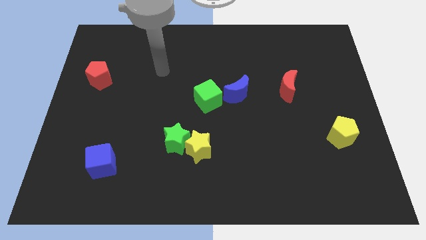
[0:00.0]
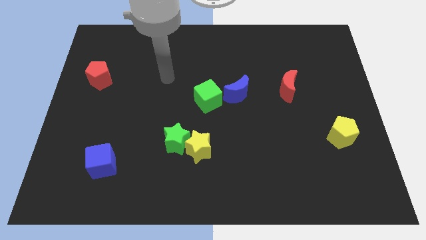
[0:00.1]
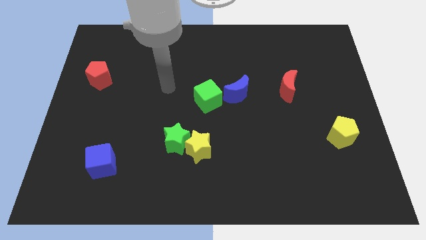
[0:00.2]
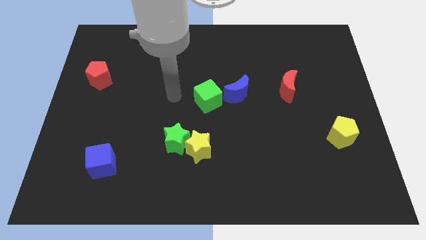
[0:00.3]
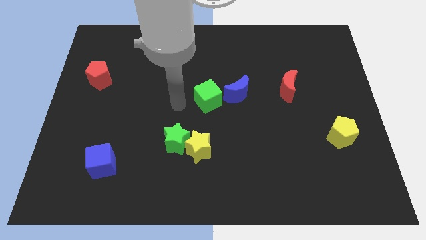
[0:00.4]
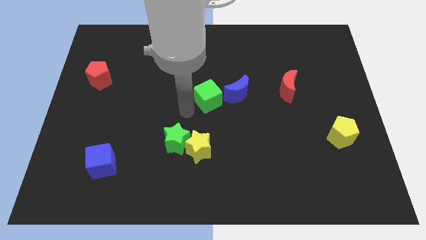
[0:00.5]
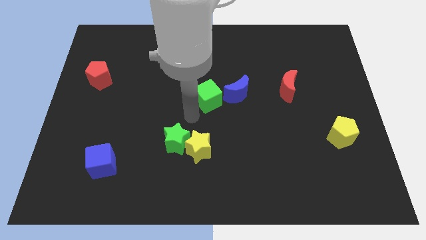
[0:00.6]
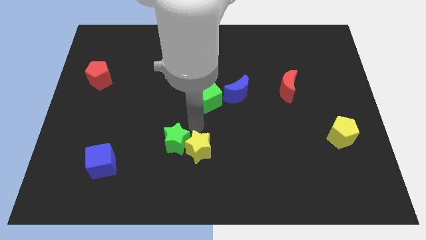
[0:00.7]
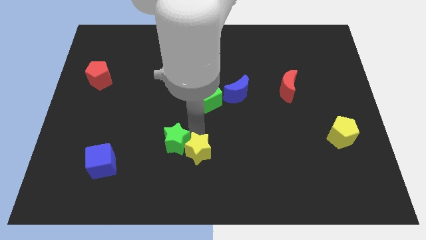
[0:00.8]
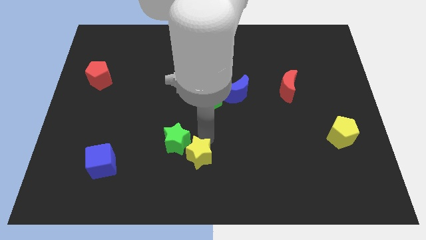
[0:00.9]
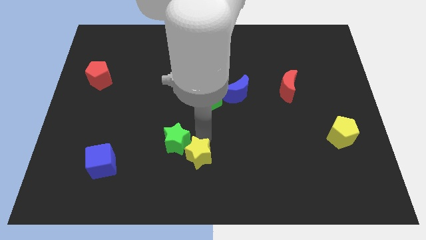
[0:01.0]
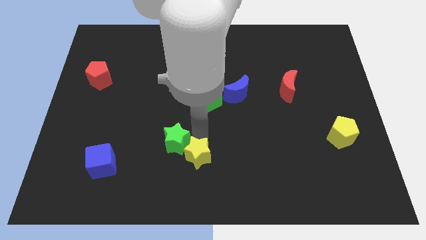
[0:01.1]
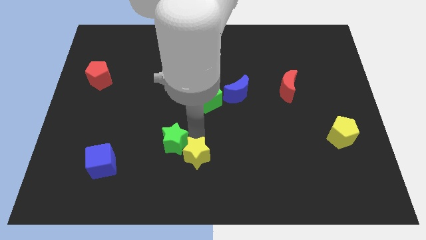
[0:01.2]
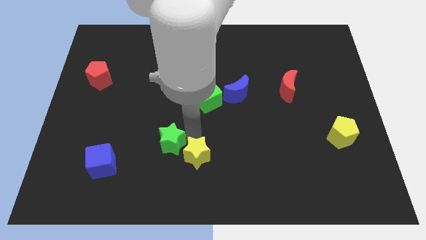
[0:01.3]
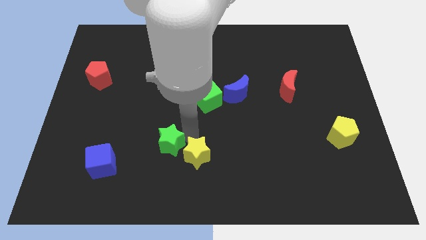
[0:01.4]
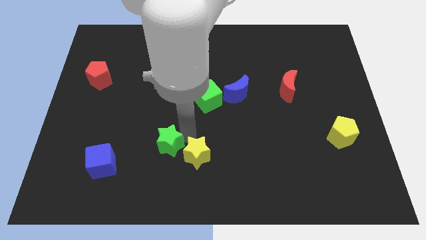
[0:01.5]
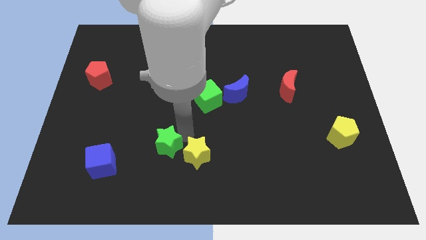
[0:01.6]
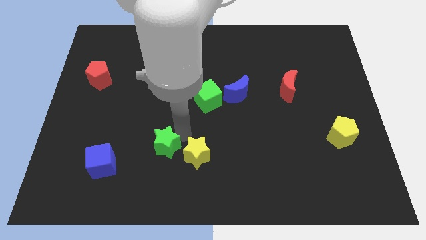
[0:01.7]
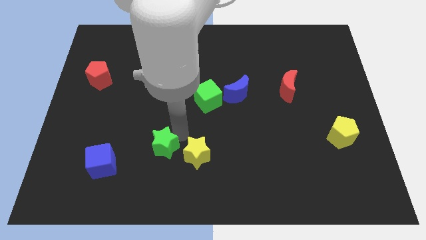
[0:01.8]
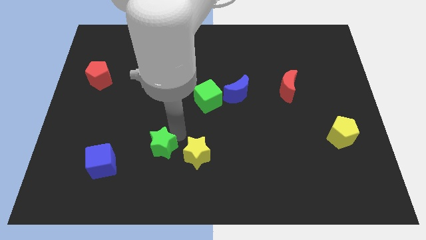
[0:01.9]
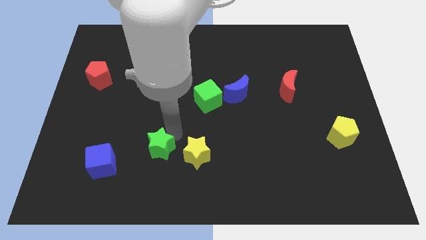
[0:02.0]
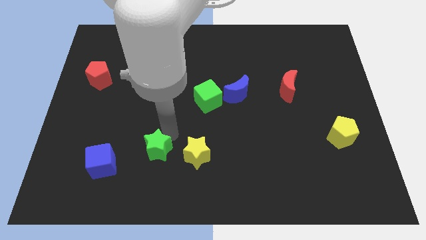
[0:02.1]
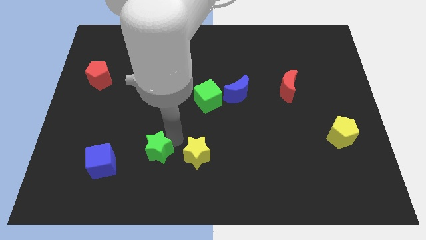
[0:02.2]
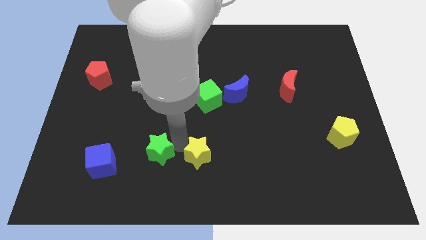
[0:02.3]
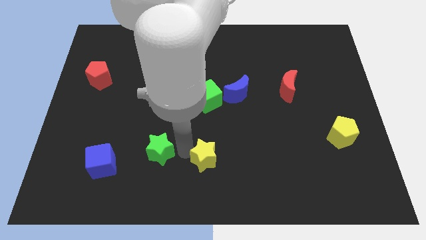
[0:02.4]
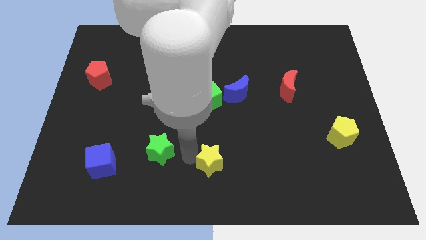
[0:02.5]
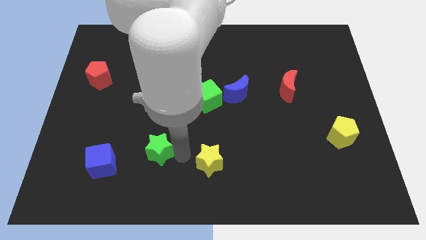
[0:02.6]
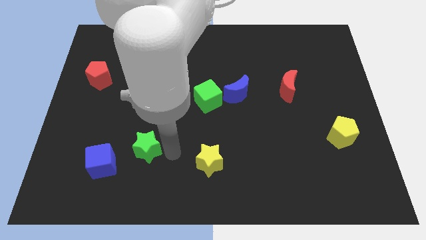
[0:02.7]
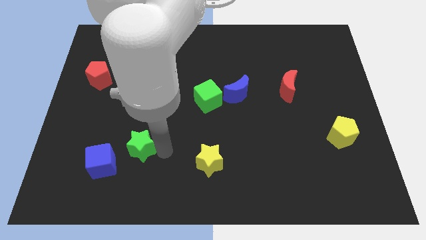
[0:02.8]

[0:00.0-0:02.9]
slightly move the green star to the left

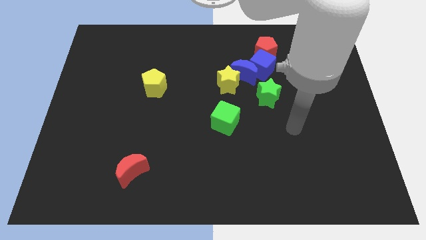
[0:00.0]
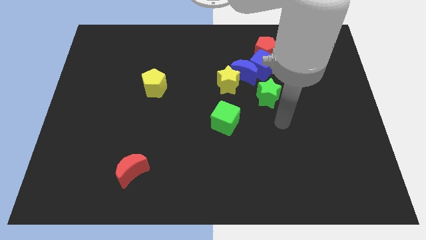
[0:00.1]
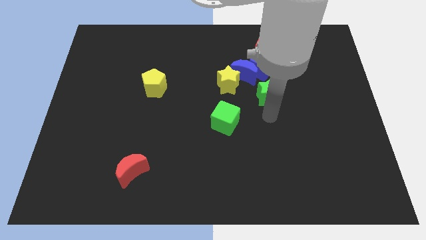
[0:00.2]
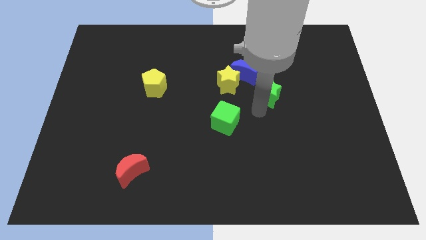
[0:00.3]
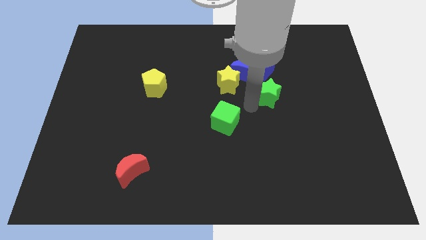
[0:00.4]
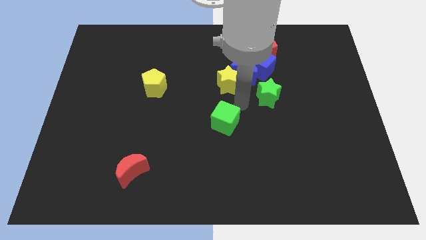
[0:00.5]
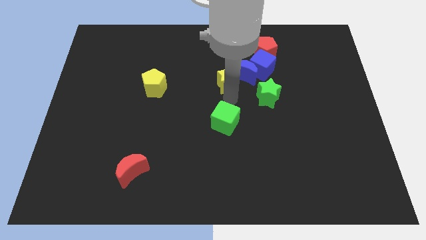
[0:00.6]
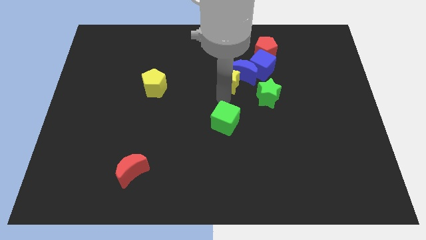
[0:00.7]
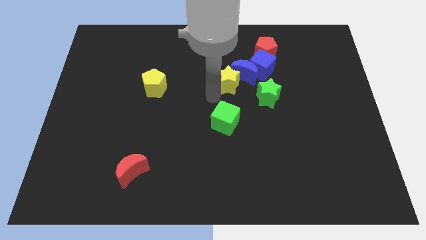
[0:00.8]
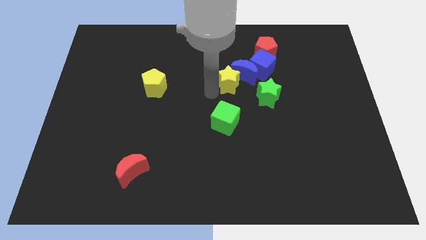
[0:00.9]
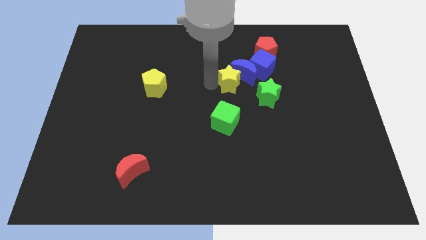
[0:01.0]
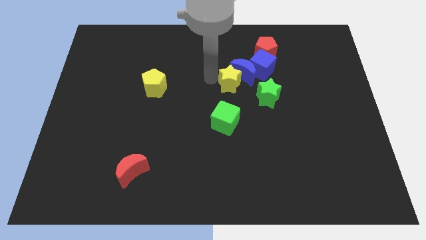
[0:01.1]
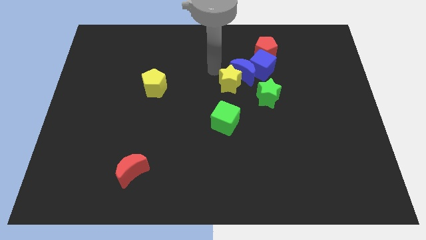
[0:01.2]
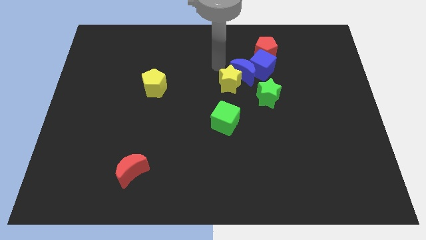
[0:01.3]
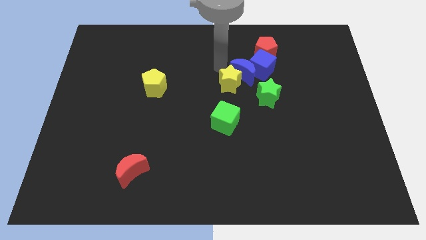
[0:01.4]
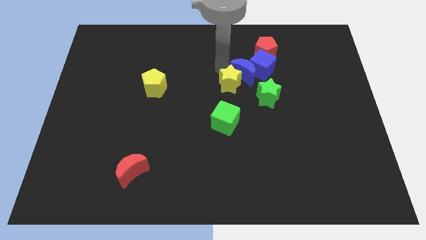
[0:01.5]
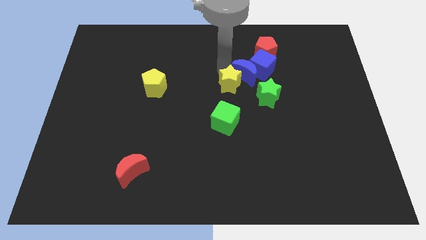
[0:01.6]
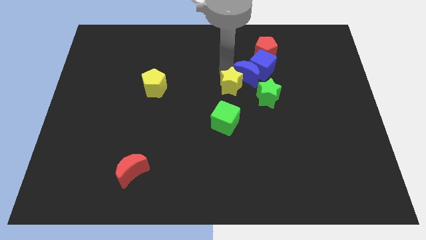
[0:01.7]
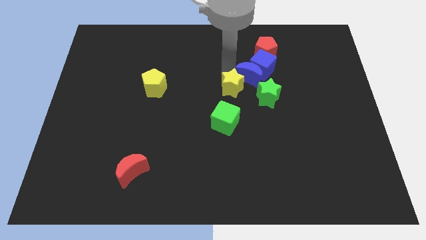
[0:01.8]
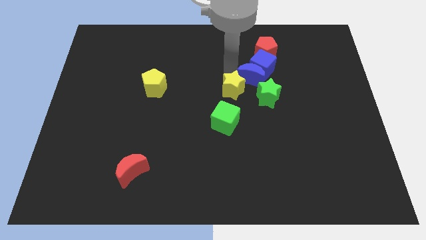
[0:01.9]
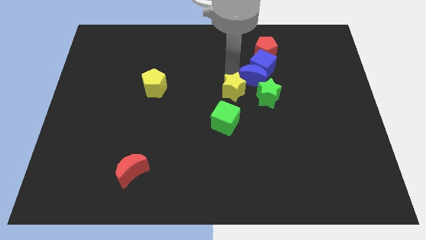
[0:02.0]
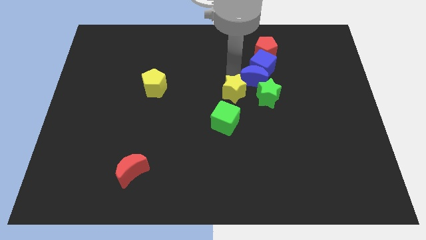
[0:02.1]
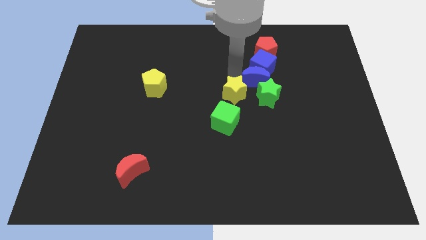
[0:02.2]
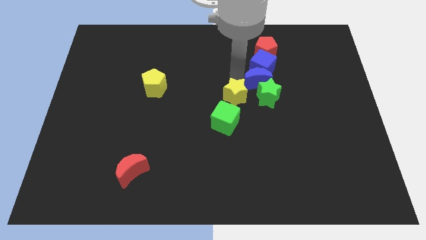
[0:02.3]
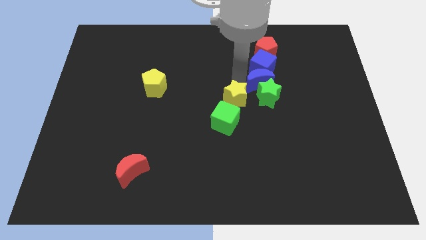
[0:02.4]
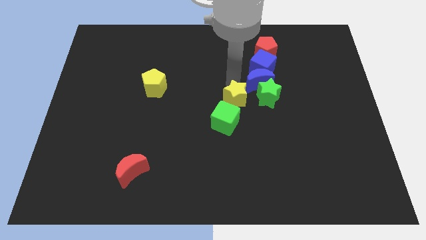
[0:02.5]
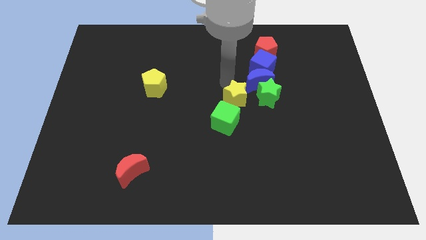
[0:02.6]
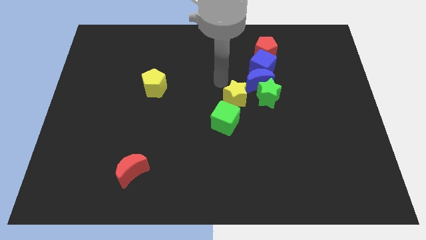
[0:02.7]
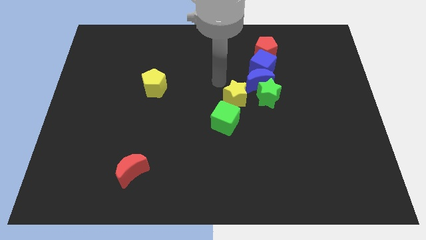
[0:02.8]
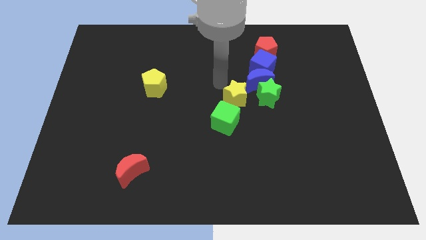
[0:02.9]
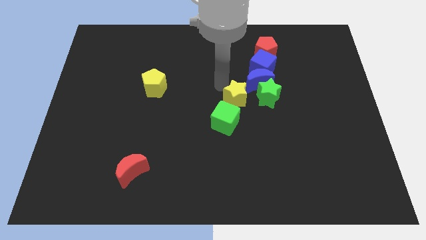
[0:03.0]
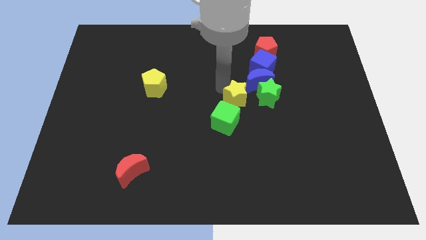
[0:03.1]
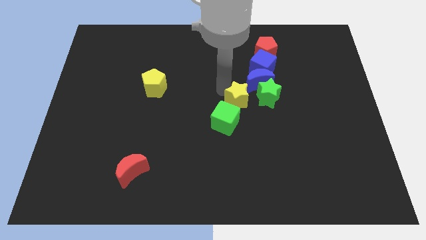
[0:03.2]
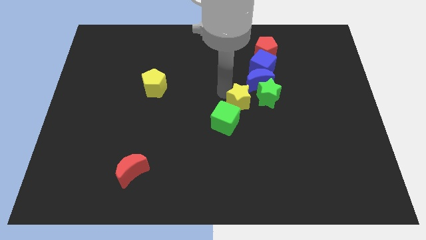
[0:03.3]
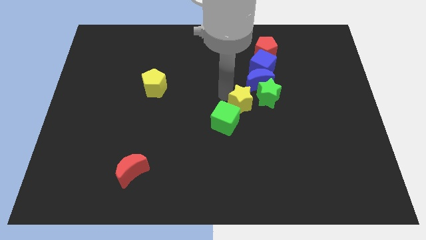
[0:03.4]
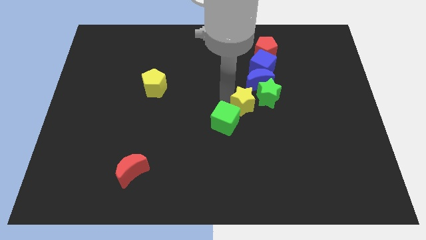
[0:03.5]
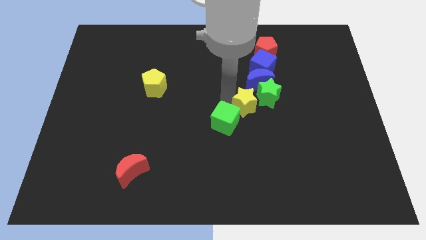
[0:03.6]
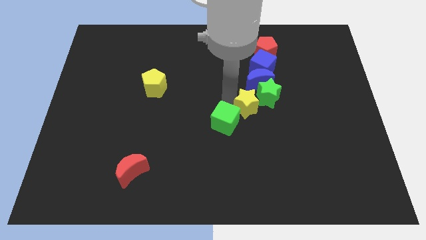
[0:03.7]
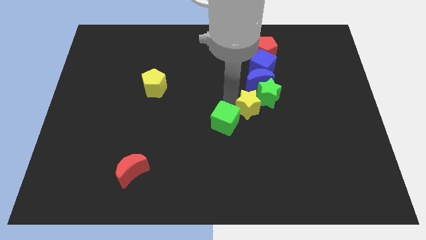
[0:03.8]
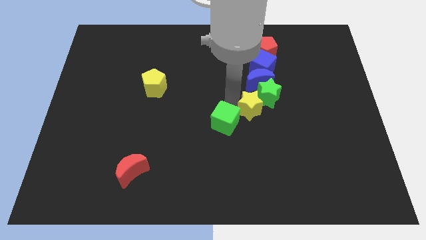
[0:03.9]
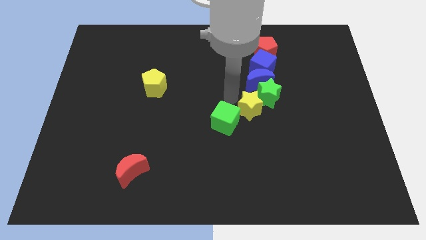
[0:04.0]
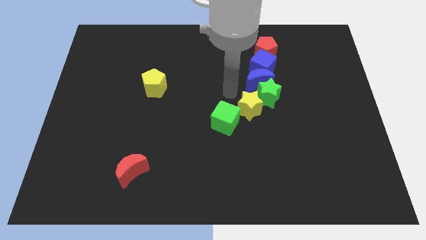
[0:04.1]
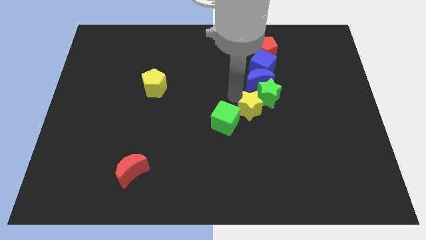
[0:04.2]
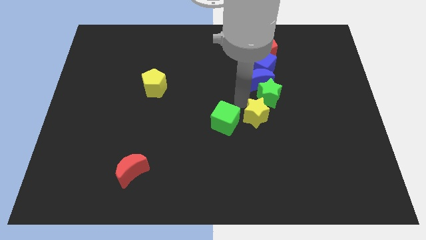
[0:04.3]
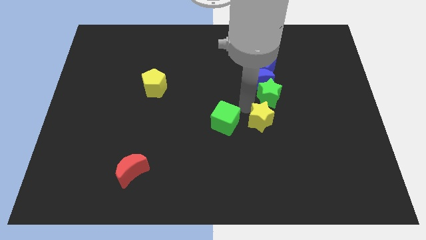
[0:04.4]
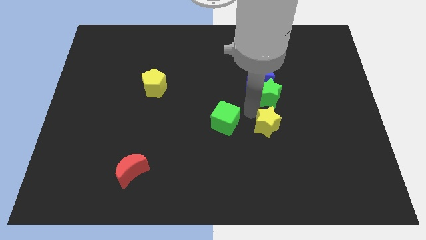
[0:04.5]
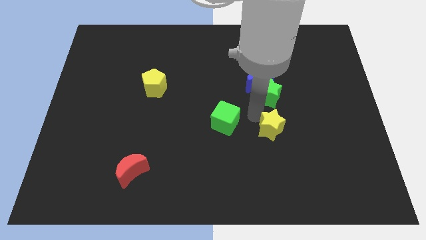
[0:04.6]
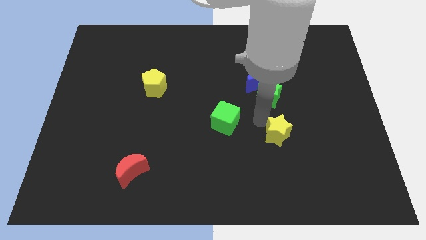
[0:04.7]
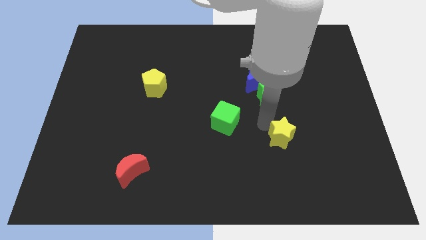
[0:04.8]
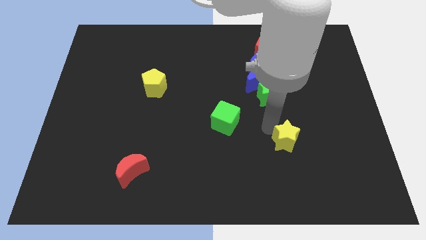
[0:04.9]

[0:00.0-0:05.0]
slide the yellow star downwards and to the right

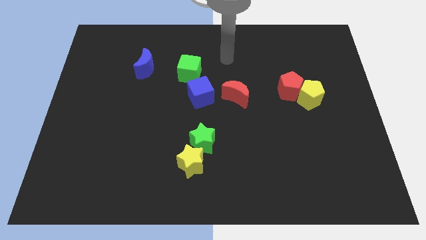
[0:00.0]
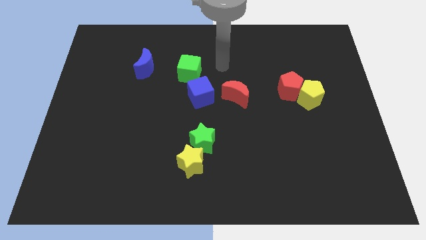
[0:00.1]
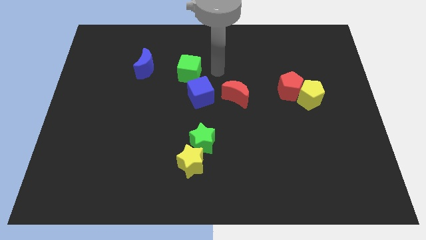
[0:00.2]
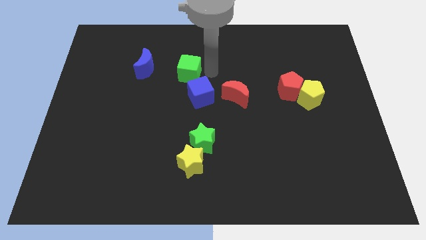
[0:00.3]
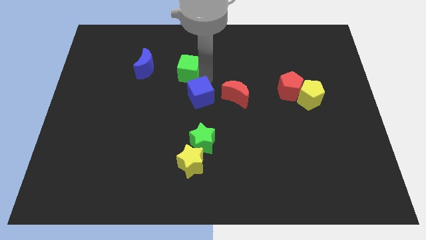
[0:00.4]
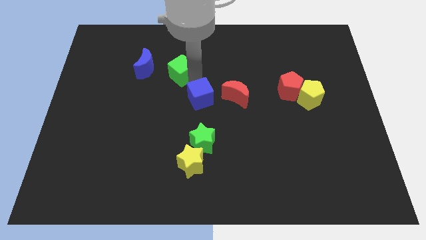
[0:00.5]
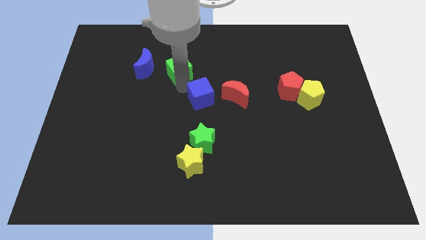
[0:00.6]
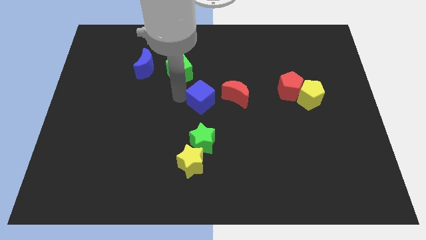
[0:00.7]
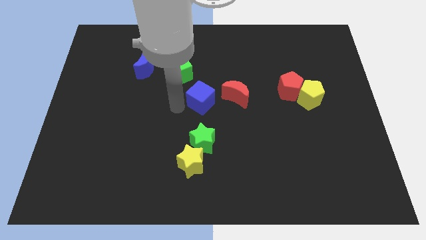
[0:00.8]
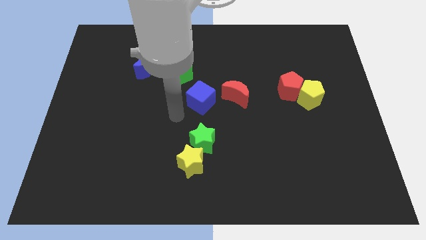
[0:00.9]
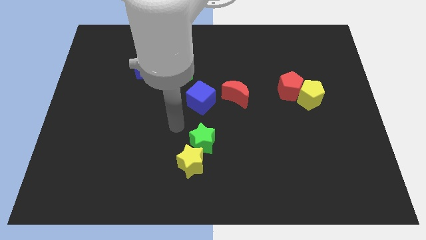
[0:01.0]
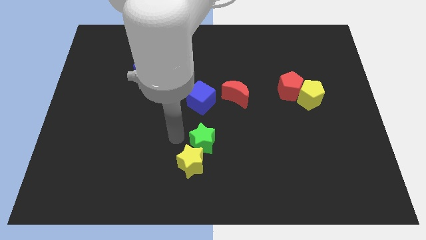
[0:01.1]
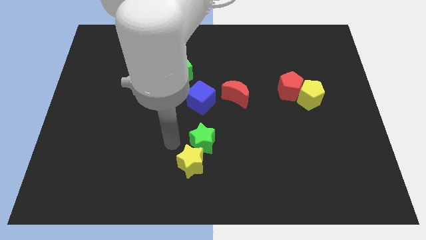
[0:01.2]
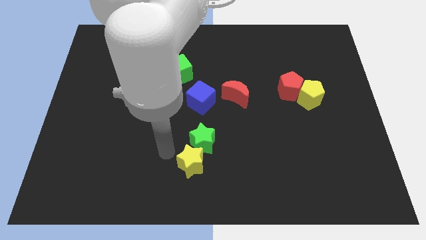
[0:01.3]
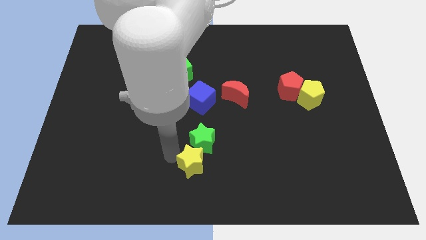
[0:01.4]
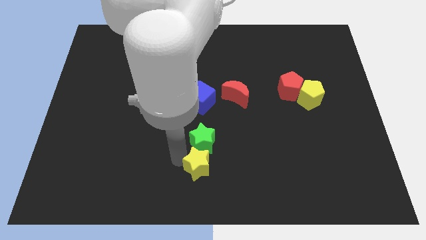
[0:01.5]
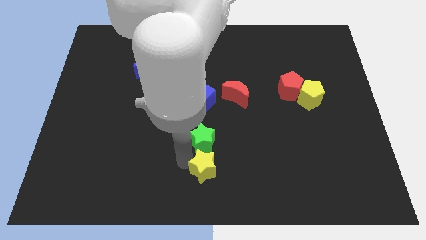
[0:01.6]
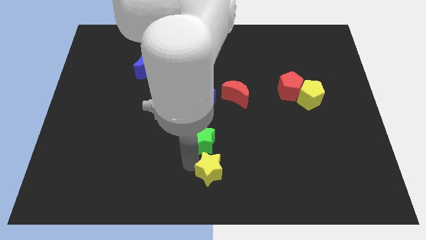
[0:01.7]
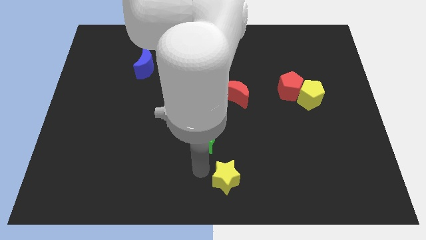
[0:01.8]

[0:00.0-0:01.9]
slightly move the yellow star right
